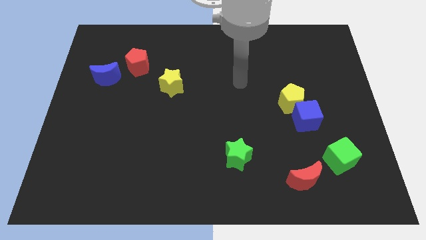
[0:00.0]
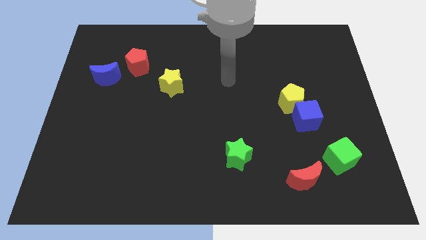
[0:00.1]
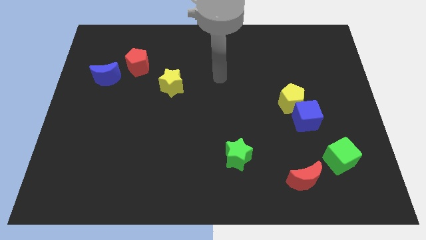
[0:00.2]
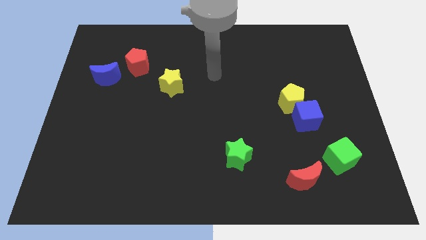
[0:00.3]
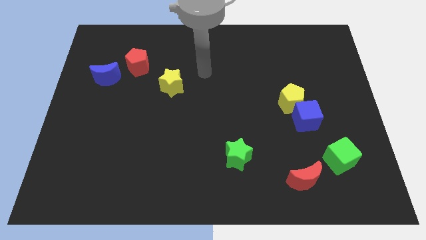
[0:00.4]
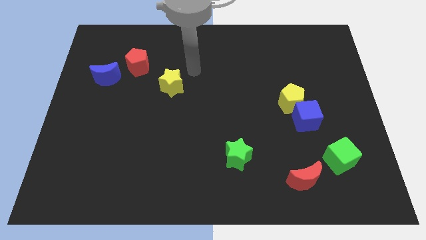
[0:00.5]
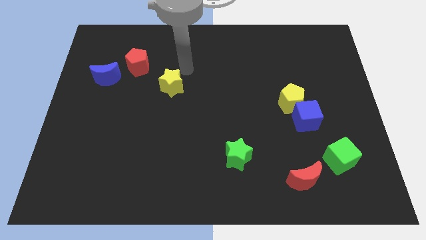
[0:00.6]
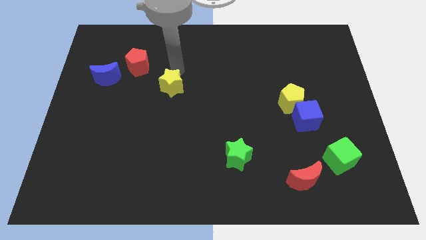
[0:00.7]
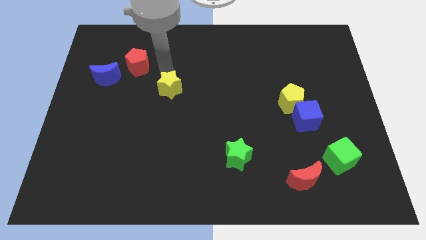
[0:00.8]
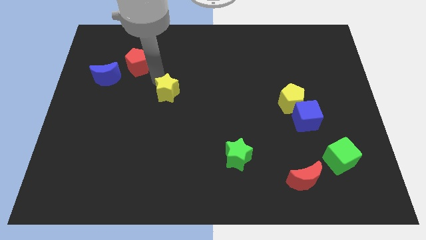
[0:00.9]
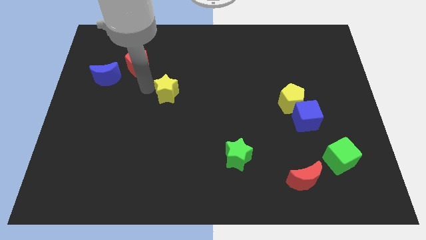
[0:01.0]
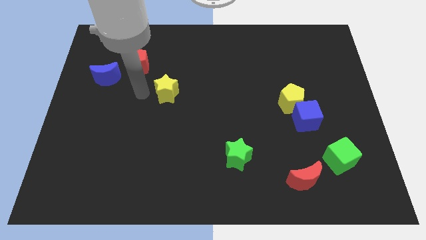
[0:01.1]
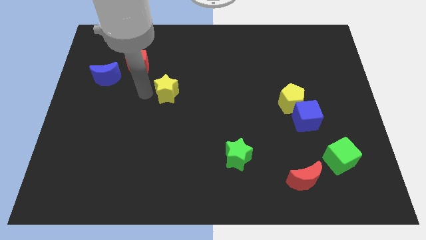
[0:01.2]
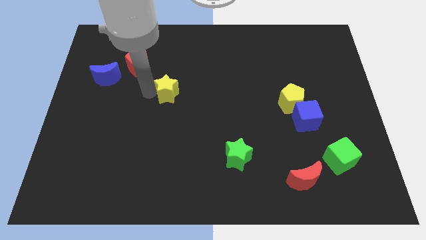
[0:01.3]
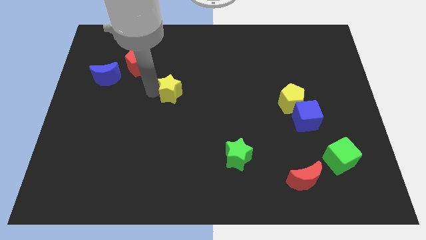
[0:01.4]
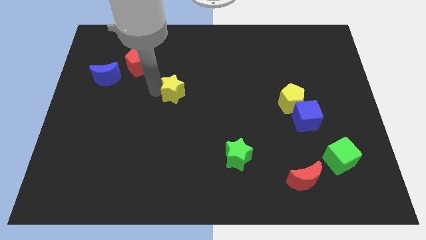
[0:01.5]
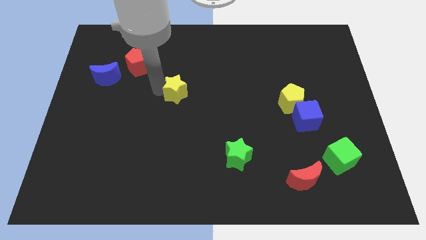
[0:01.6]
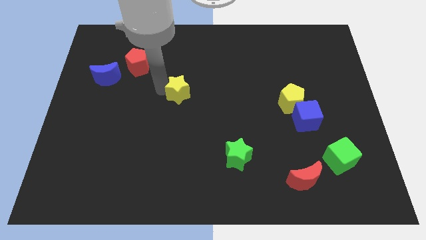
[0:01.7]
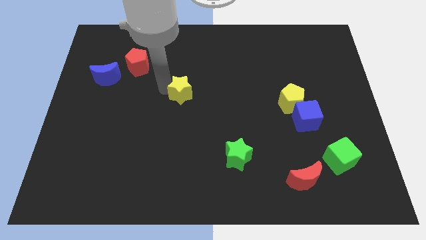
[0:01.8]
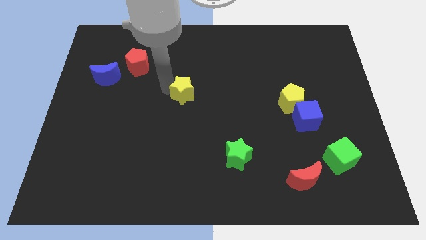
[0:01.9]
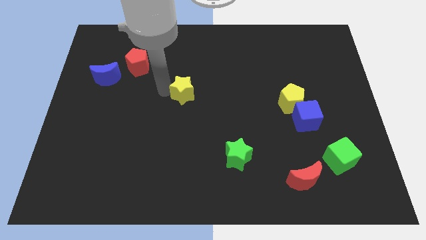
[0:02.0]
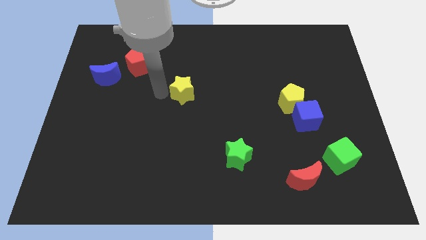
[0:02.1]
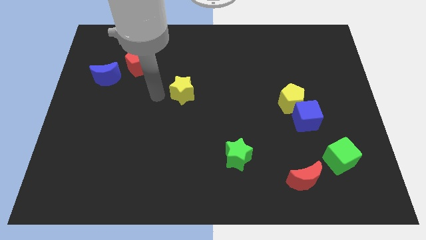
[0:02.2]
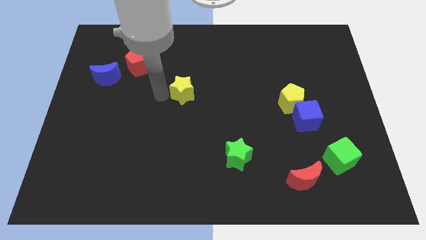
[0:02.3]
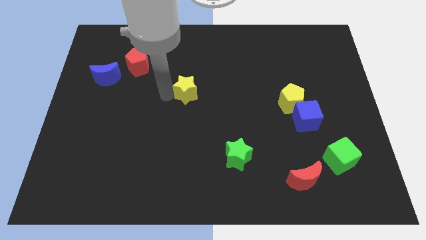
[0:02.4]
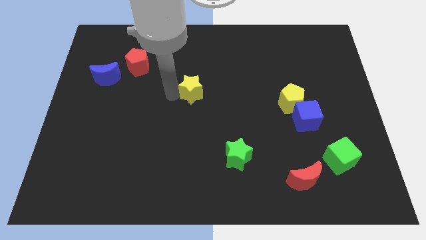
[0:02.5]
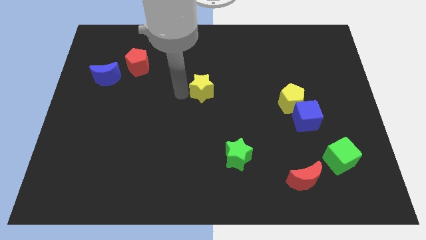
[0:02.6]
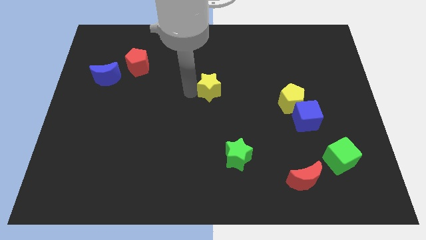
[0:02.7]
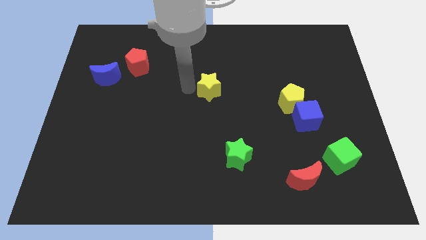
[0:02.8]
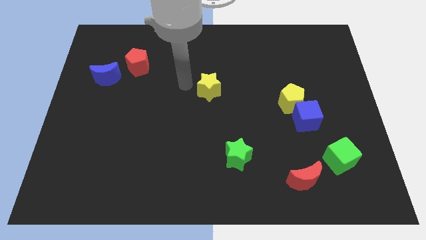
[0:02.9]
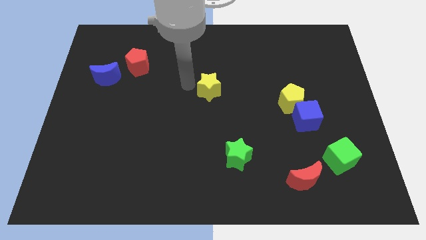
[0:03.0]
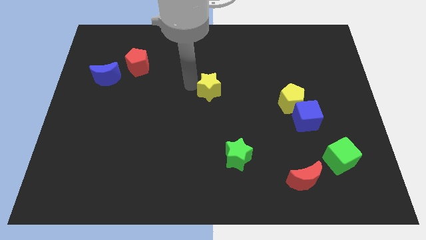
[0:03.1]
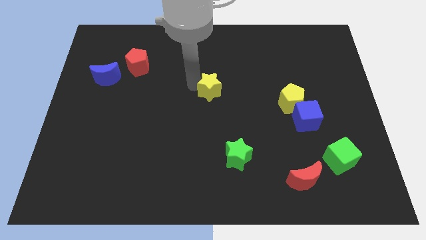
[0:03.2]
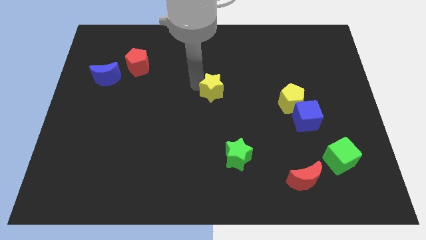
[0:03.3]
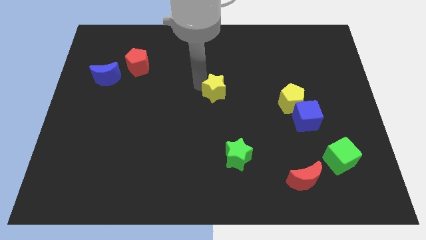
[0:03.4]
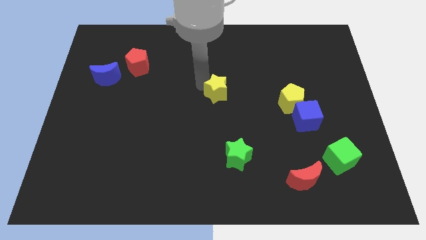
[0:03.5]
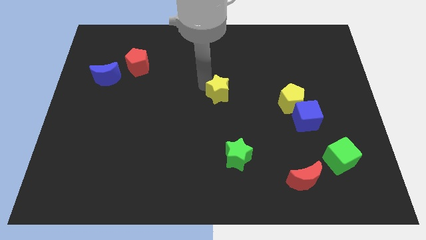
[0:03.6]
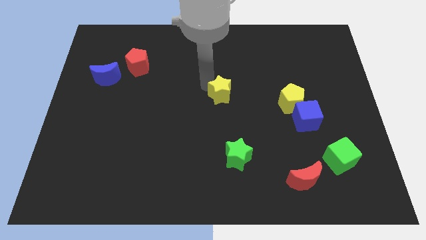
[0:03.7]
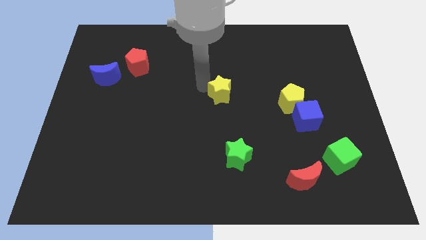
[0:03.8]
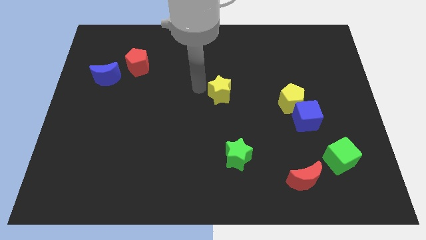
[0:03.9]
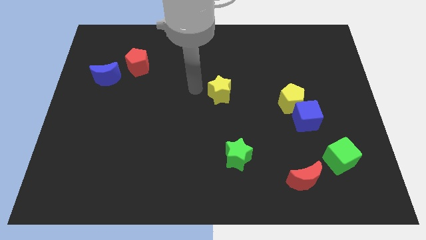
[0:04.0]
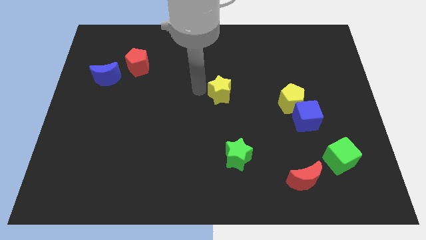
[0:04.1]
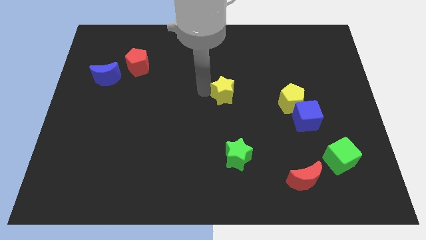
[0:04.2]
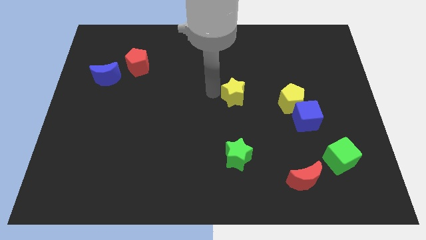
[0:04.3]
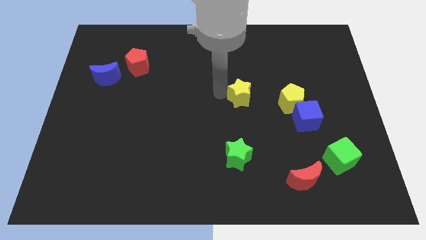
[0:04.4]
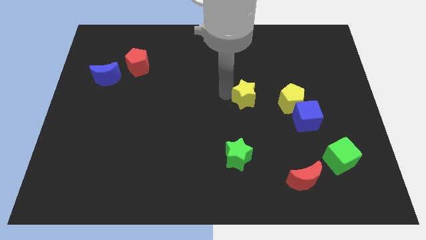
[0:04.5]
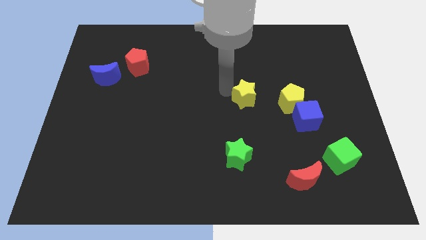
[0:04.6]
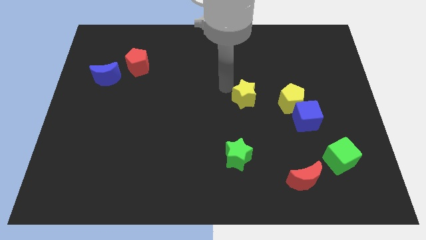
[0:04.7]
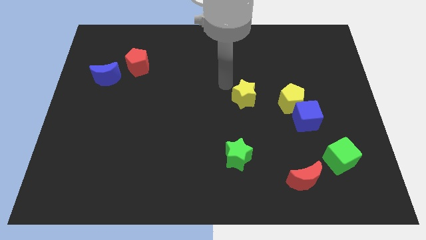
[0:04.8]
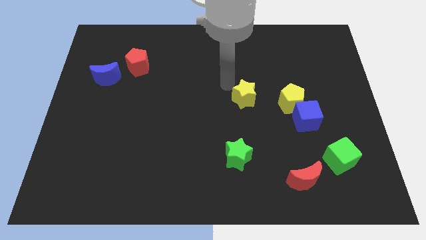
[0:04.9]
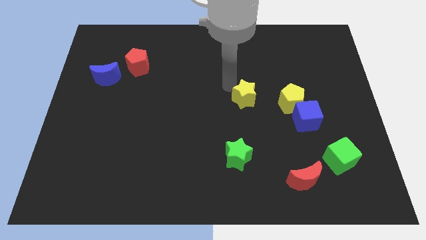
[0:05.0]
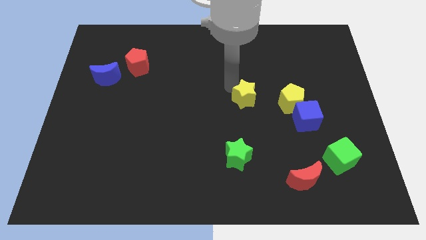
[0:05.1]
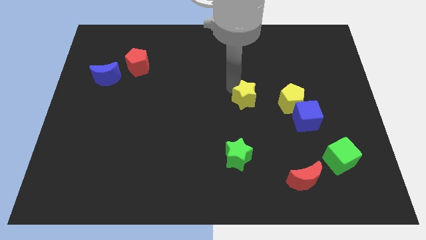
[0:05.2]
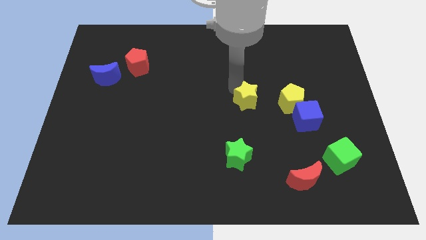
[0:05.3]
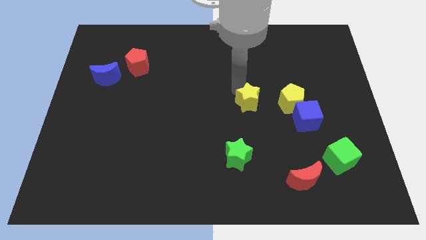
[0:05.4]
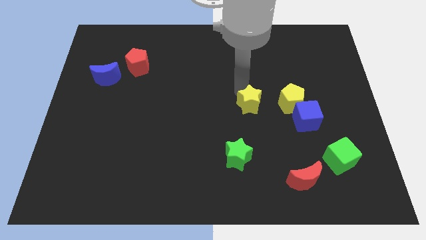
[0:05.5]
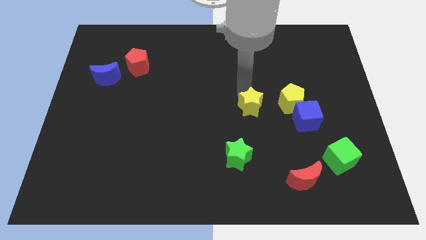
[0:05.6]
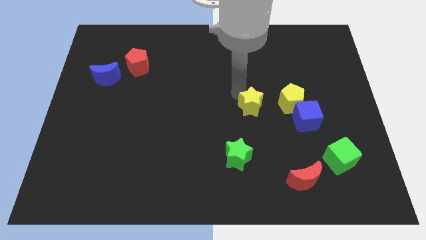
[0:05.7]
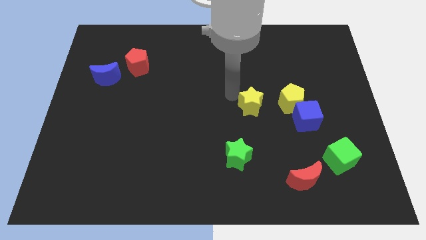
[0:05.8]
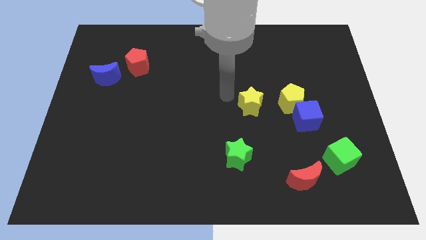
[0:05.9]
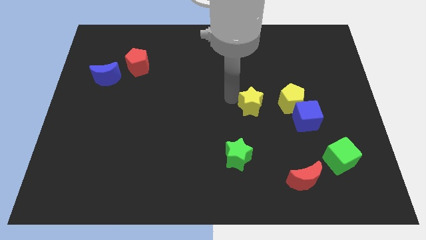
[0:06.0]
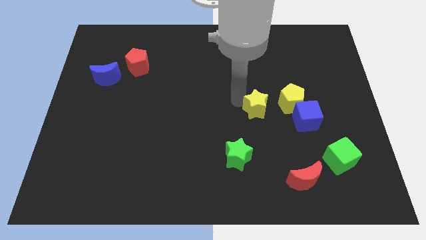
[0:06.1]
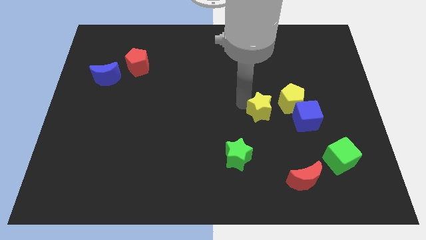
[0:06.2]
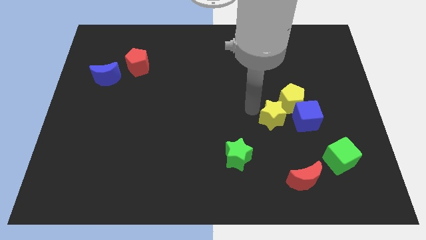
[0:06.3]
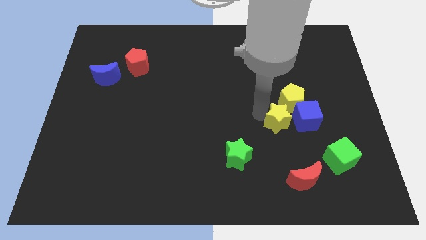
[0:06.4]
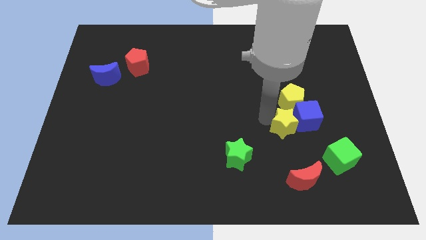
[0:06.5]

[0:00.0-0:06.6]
slide the yellow star towards the blue cube

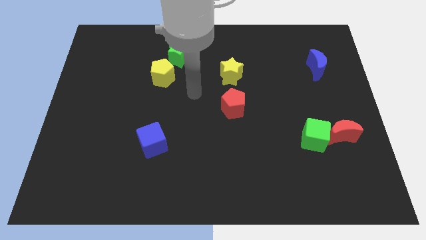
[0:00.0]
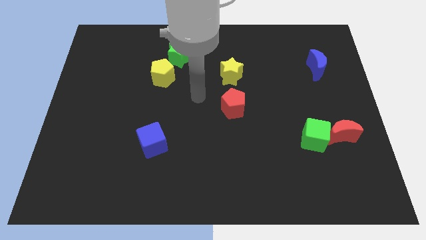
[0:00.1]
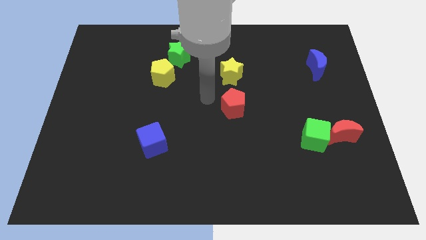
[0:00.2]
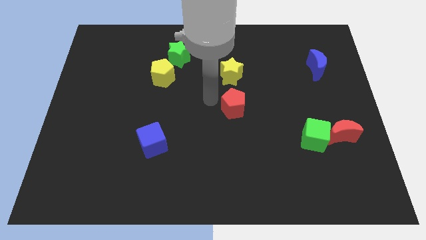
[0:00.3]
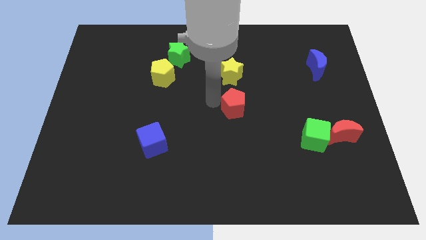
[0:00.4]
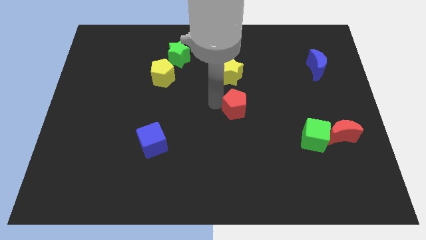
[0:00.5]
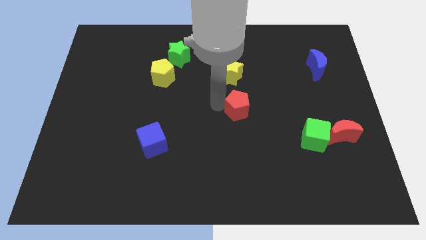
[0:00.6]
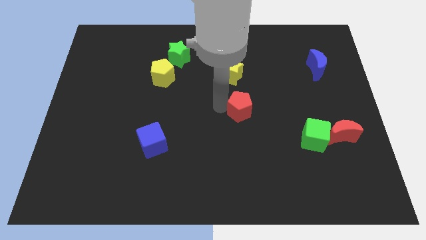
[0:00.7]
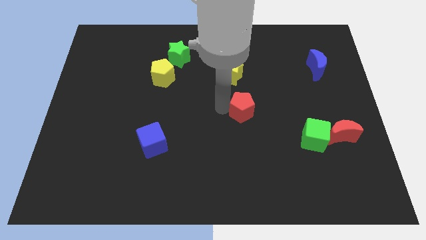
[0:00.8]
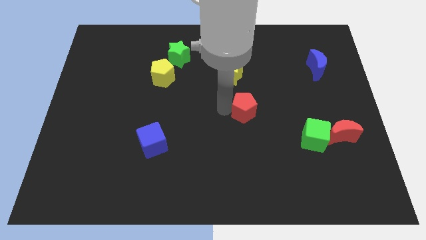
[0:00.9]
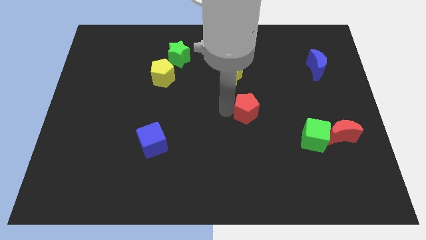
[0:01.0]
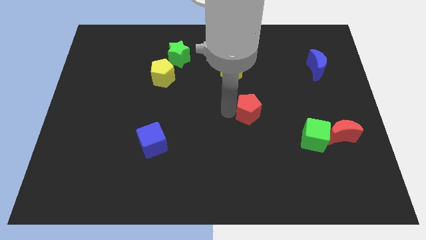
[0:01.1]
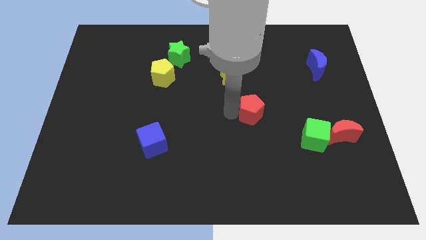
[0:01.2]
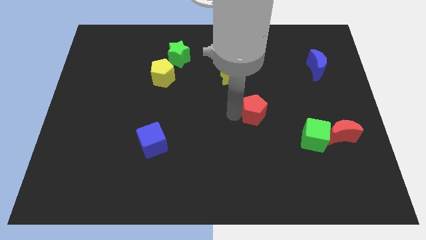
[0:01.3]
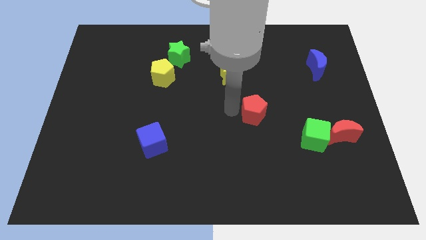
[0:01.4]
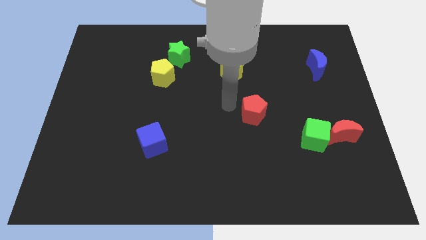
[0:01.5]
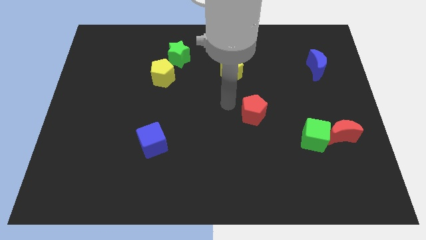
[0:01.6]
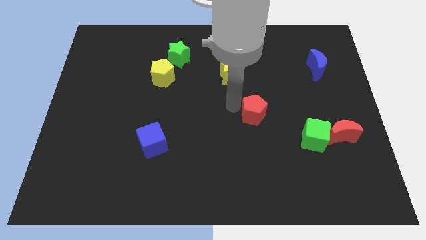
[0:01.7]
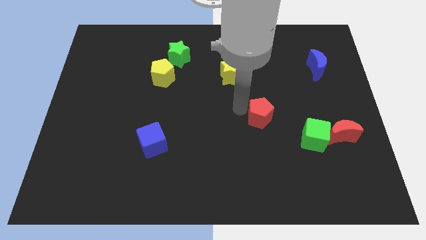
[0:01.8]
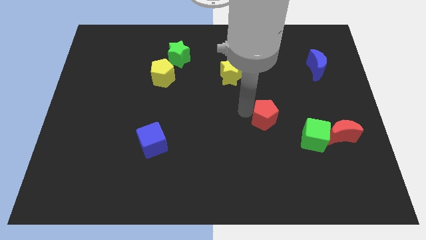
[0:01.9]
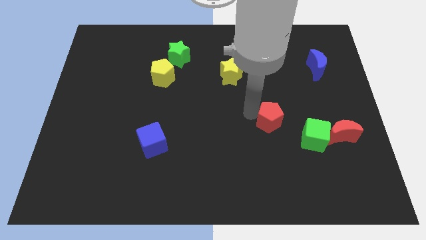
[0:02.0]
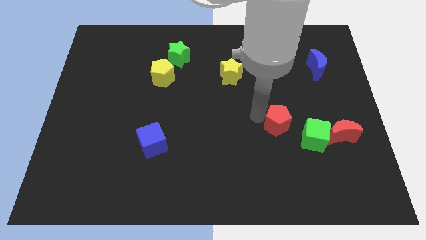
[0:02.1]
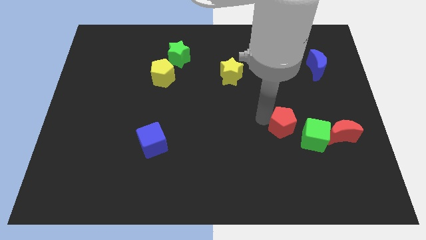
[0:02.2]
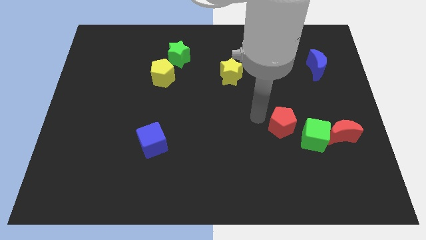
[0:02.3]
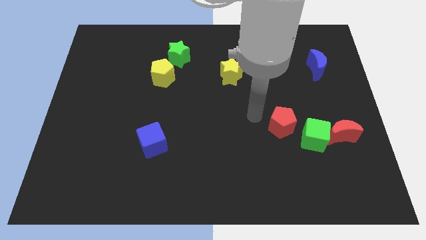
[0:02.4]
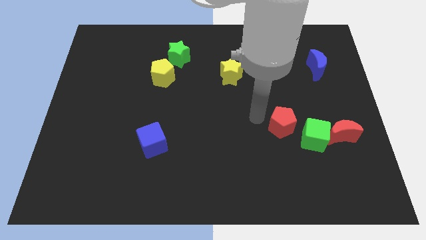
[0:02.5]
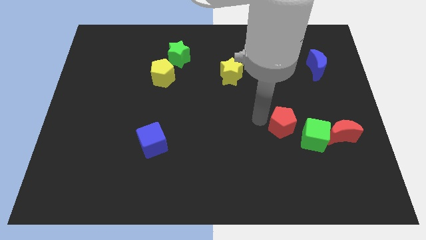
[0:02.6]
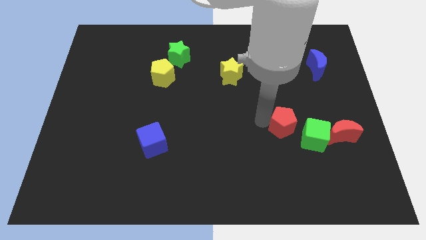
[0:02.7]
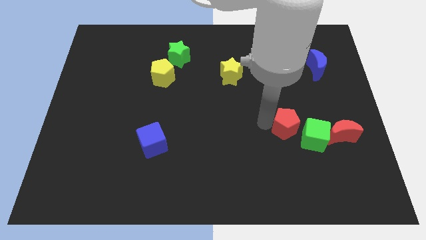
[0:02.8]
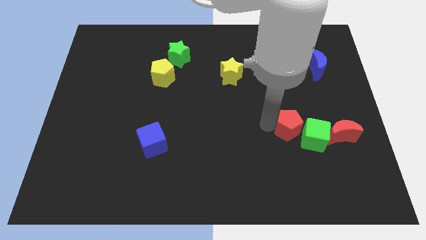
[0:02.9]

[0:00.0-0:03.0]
push the red pentagon towards the green cube
